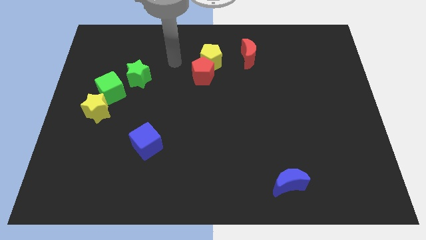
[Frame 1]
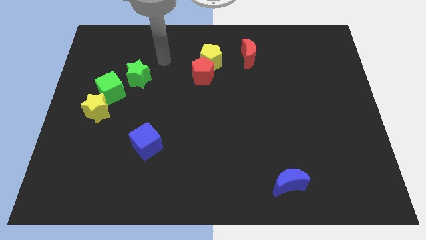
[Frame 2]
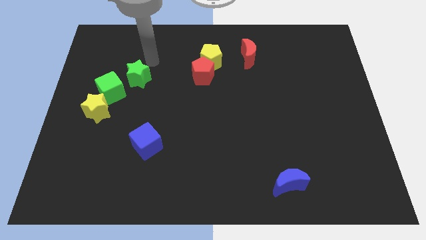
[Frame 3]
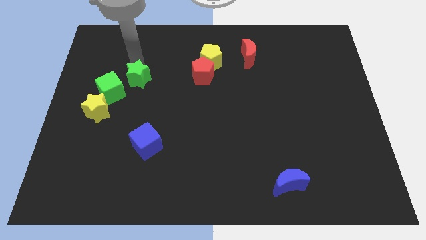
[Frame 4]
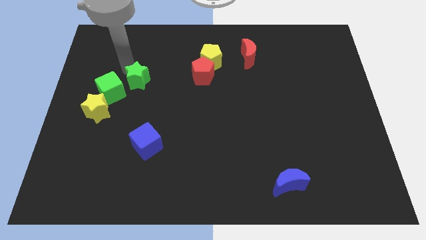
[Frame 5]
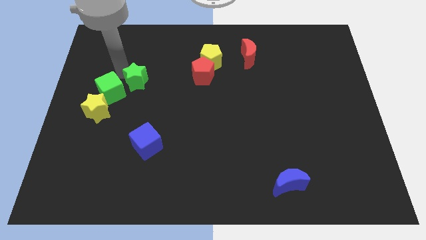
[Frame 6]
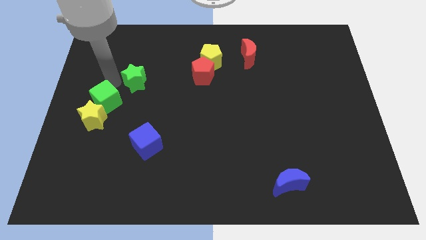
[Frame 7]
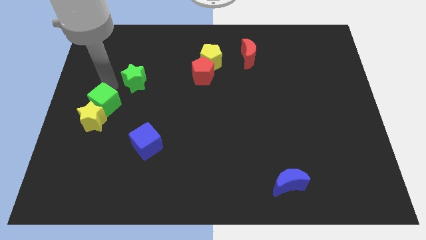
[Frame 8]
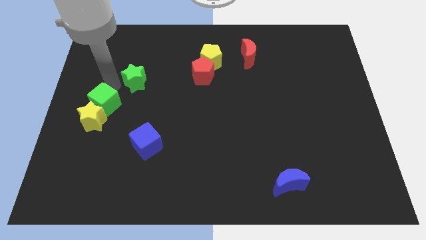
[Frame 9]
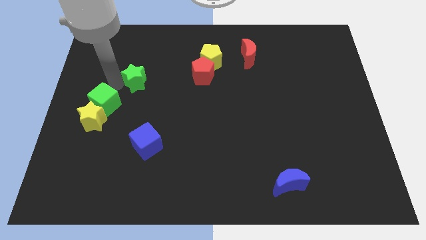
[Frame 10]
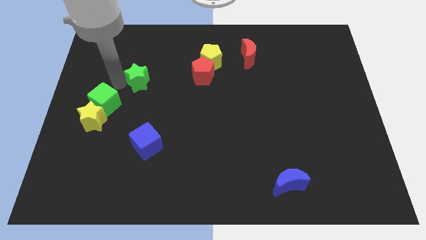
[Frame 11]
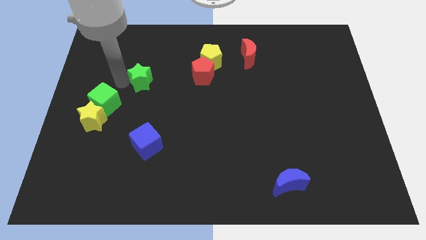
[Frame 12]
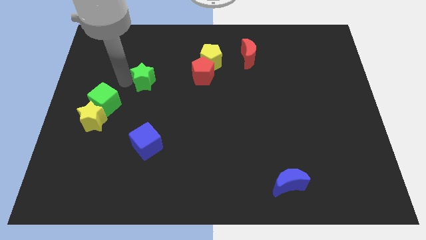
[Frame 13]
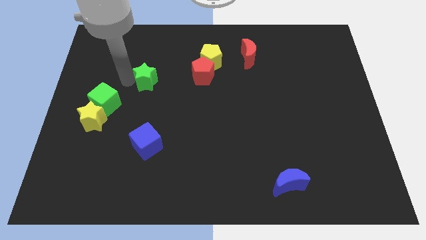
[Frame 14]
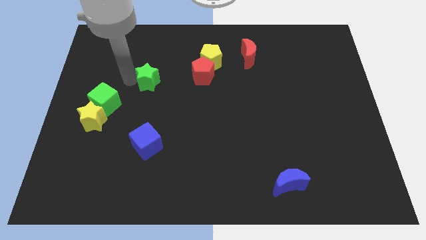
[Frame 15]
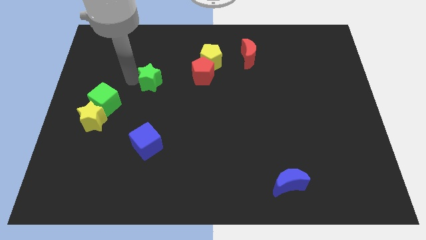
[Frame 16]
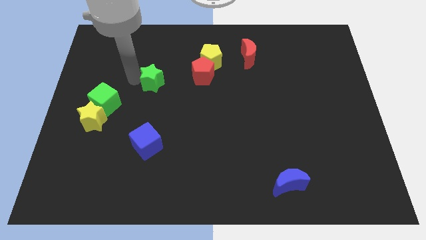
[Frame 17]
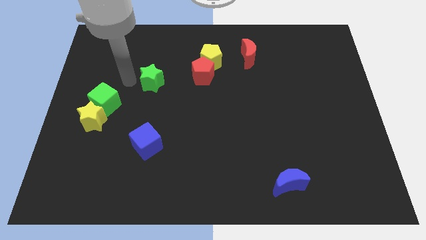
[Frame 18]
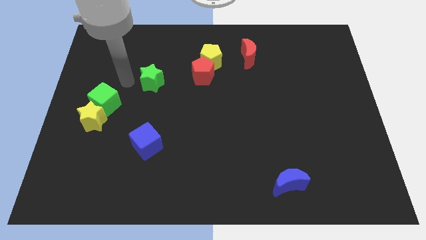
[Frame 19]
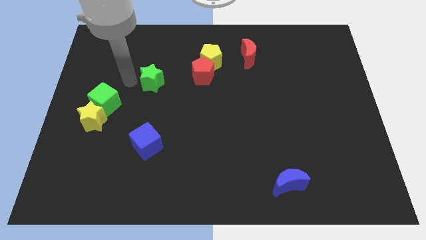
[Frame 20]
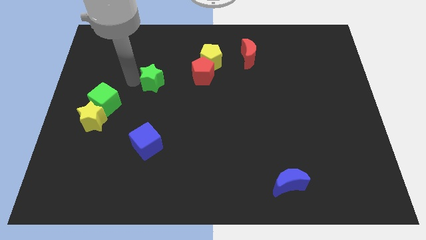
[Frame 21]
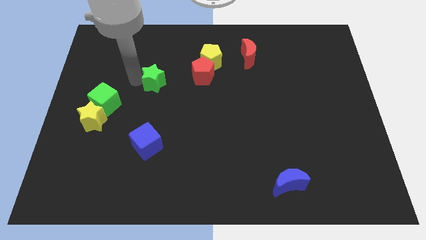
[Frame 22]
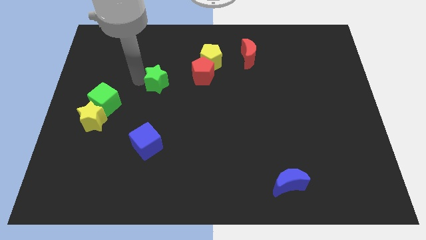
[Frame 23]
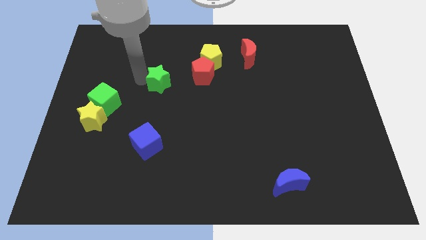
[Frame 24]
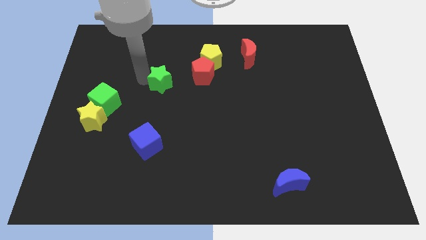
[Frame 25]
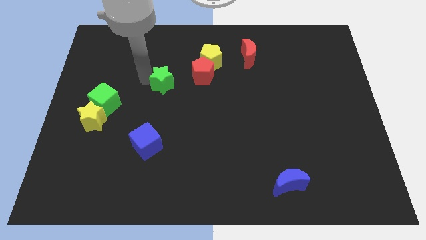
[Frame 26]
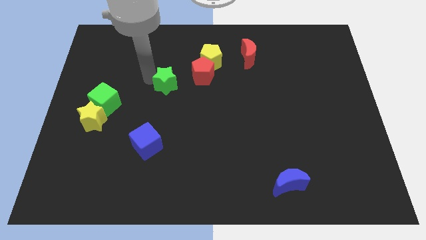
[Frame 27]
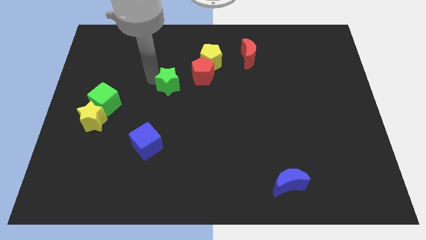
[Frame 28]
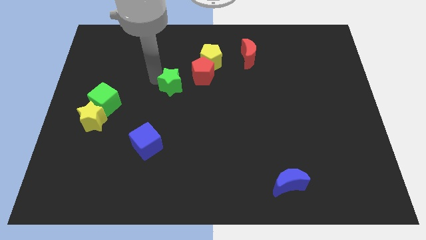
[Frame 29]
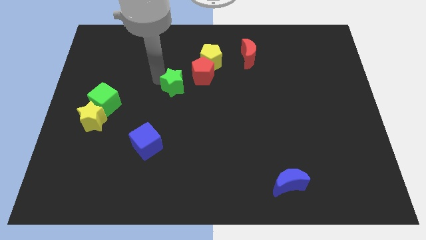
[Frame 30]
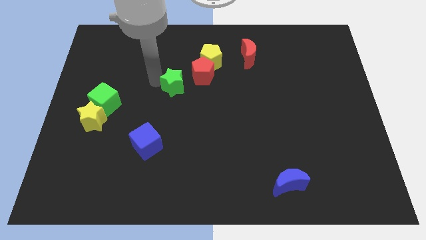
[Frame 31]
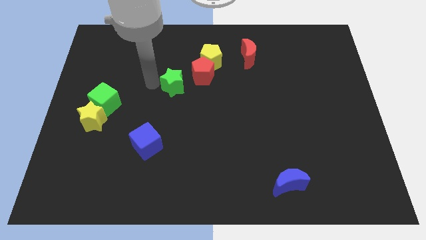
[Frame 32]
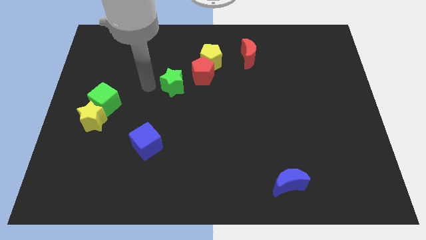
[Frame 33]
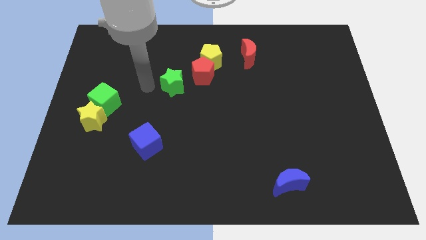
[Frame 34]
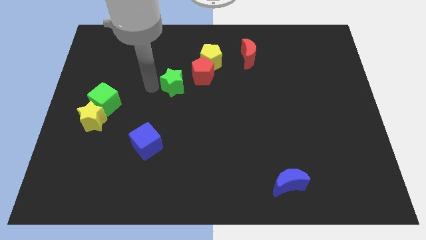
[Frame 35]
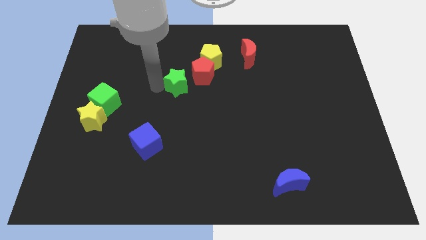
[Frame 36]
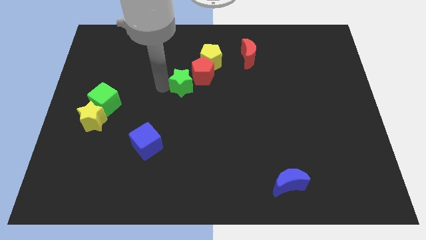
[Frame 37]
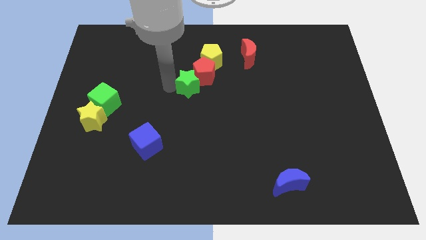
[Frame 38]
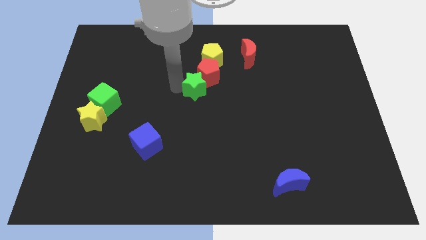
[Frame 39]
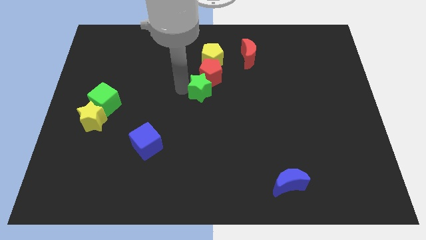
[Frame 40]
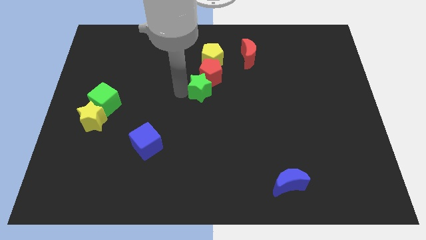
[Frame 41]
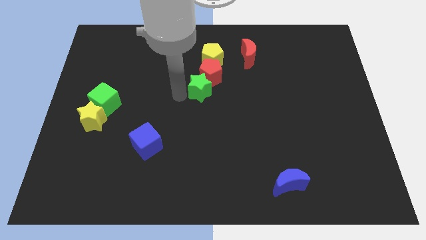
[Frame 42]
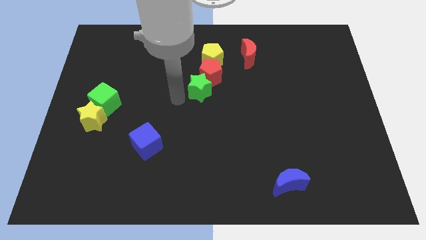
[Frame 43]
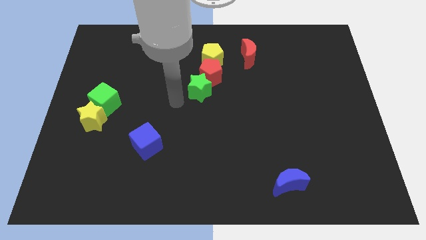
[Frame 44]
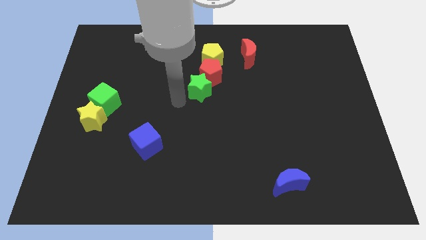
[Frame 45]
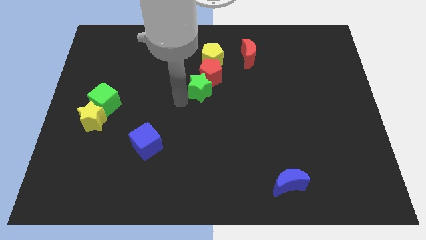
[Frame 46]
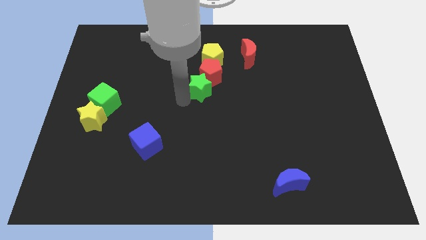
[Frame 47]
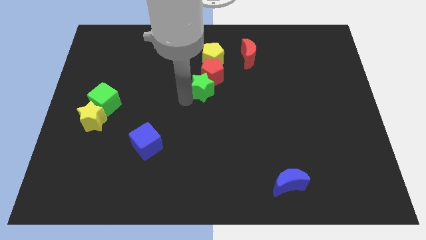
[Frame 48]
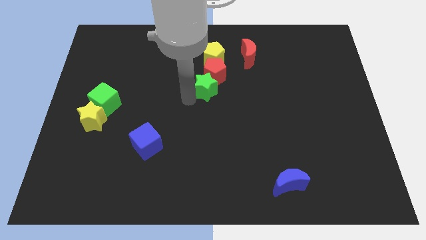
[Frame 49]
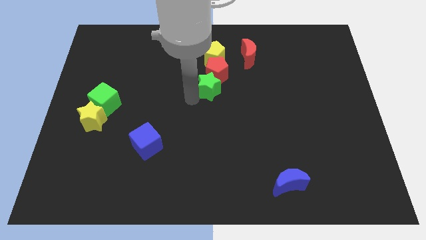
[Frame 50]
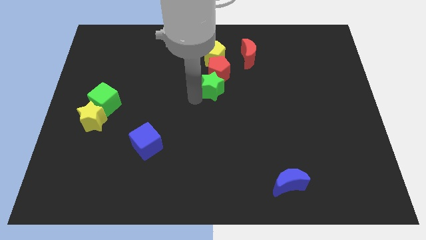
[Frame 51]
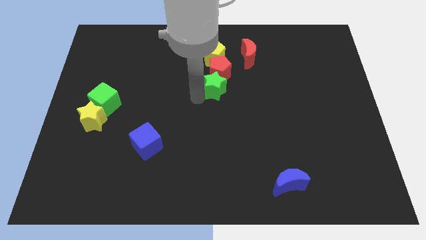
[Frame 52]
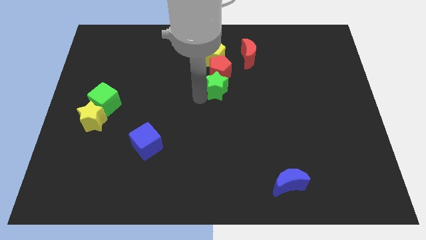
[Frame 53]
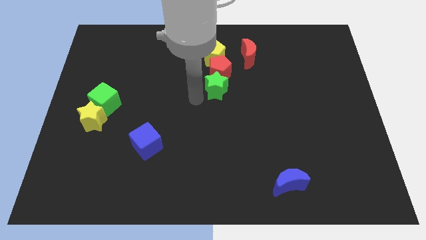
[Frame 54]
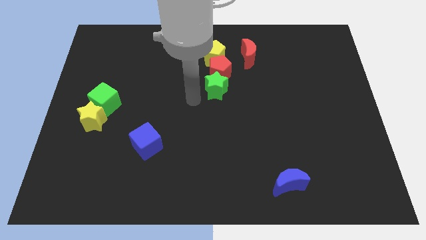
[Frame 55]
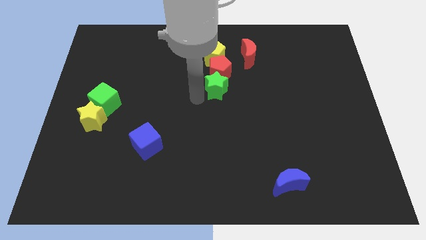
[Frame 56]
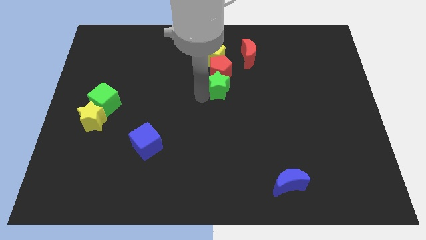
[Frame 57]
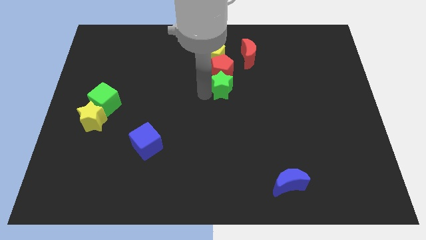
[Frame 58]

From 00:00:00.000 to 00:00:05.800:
move the green star right

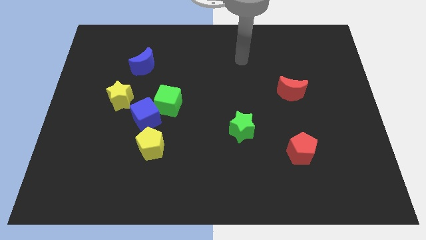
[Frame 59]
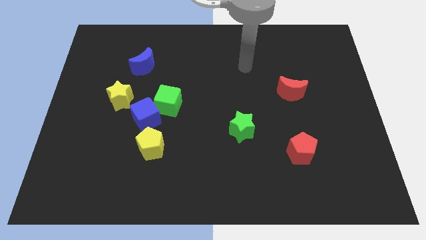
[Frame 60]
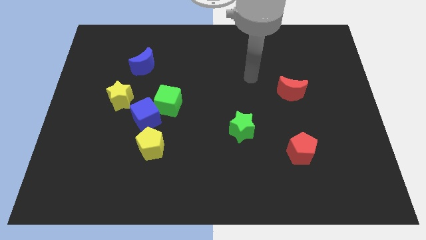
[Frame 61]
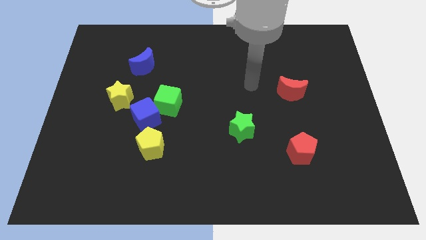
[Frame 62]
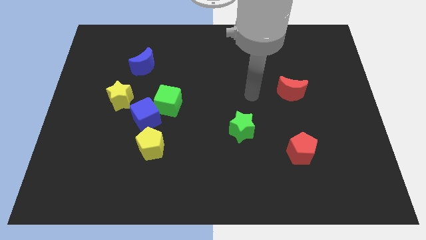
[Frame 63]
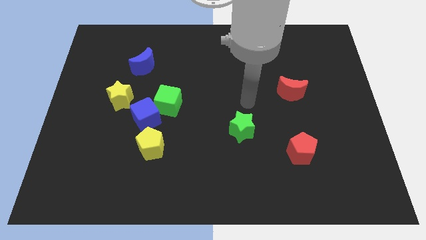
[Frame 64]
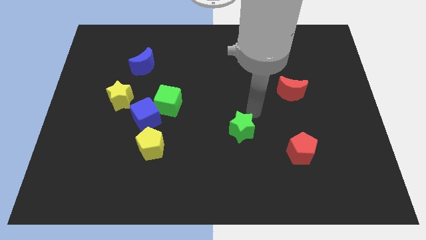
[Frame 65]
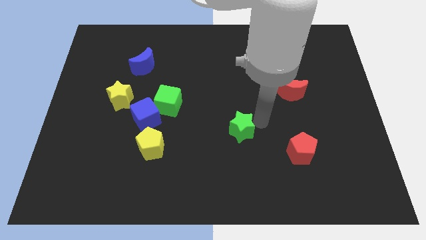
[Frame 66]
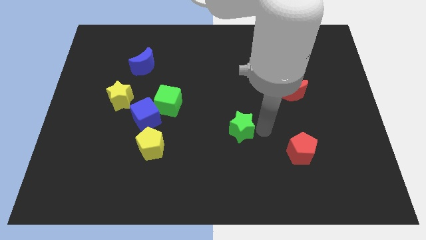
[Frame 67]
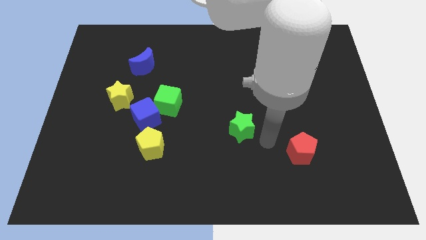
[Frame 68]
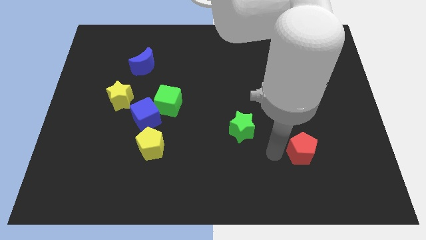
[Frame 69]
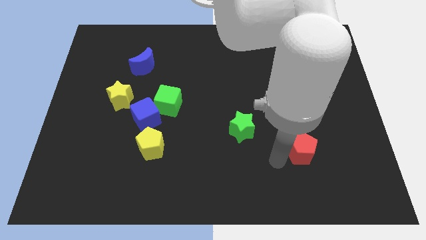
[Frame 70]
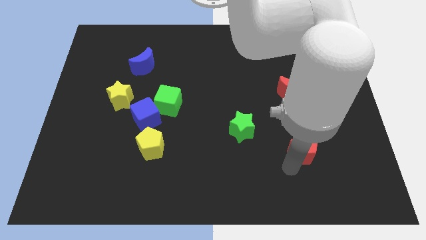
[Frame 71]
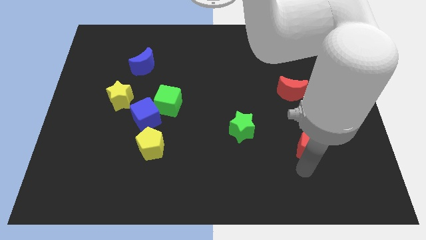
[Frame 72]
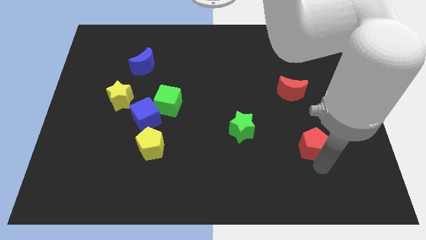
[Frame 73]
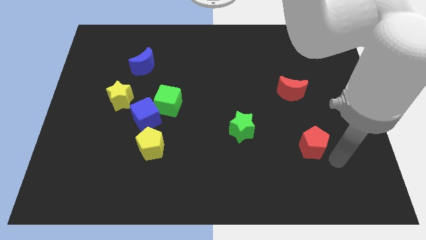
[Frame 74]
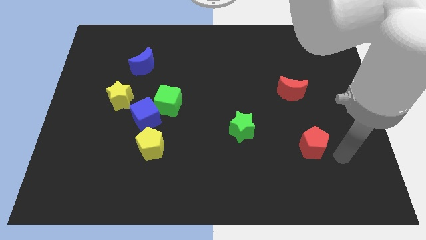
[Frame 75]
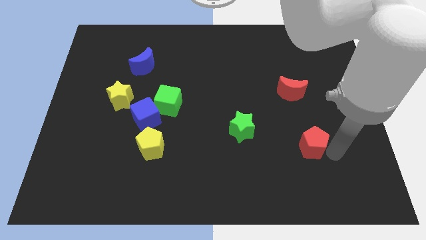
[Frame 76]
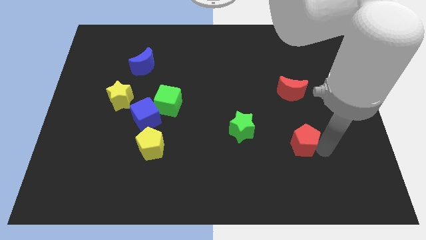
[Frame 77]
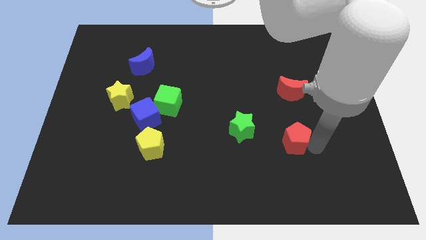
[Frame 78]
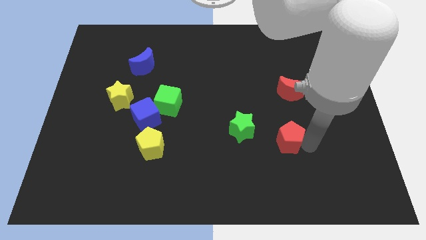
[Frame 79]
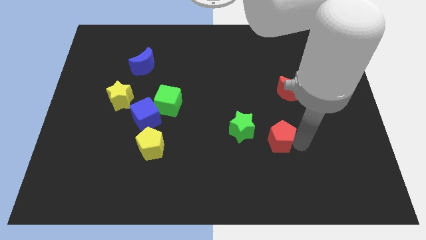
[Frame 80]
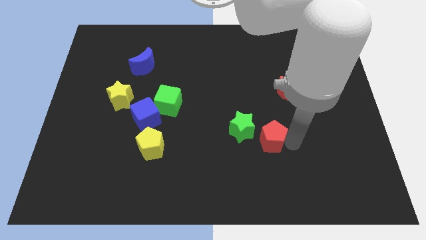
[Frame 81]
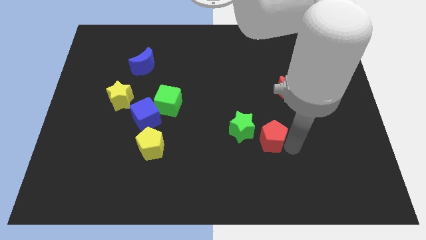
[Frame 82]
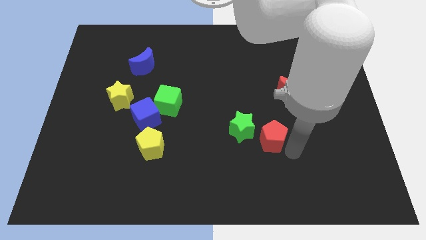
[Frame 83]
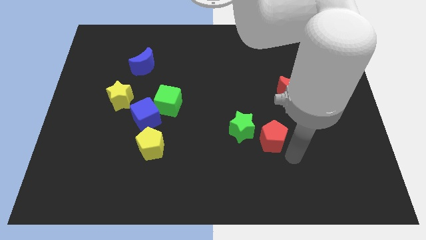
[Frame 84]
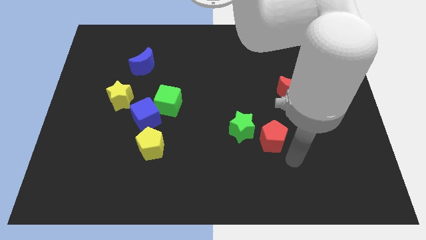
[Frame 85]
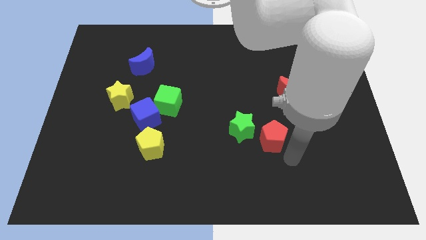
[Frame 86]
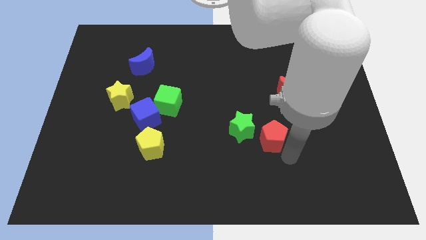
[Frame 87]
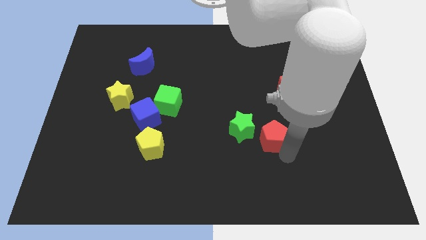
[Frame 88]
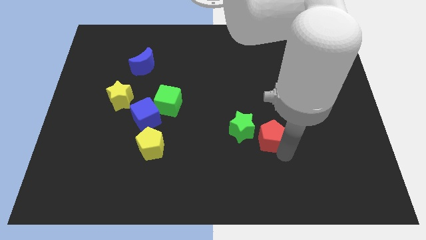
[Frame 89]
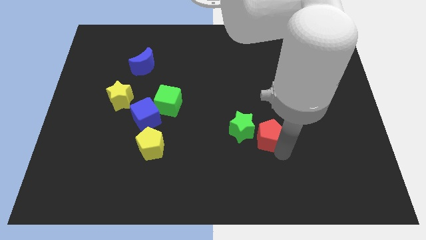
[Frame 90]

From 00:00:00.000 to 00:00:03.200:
slide the red pentagon up and to the left diagonally a little bit
